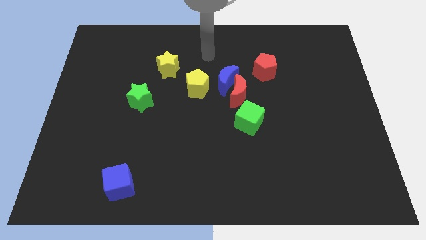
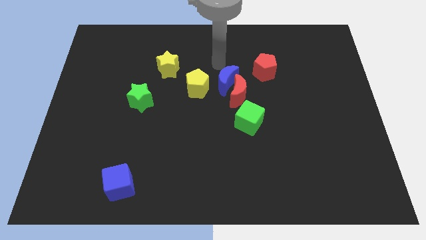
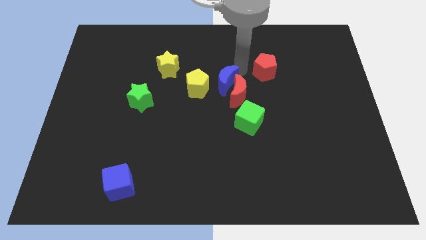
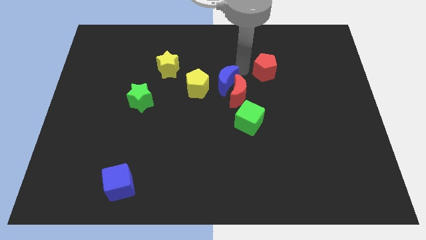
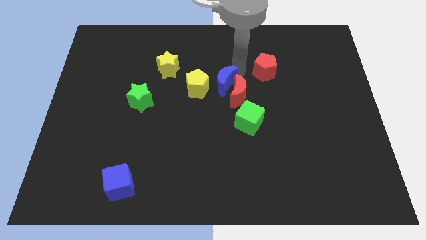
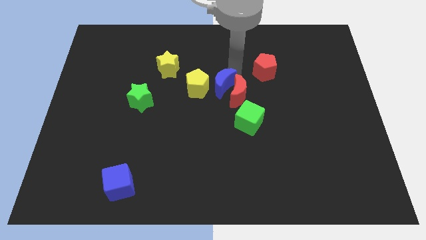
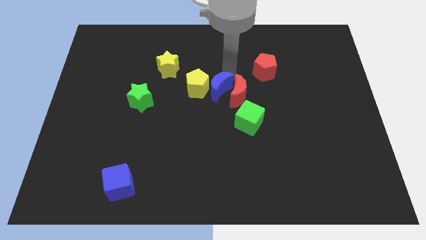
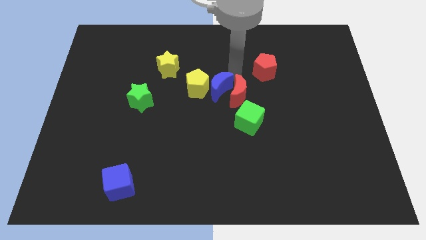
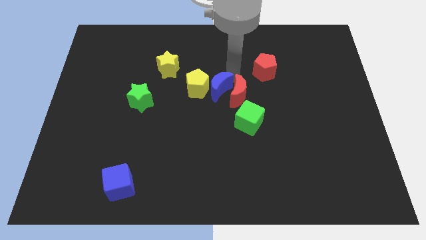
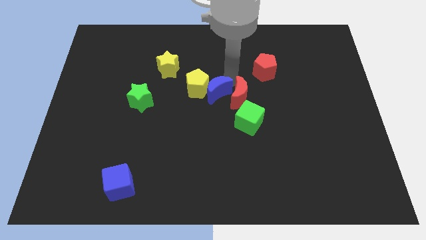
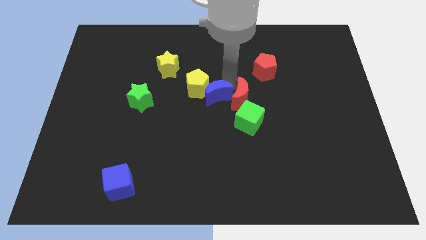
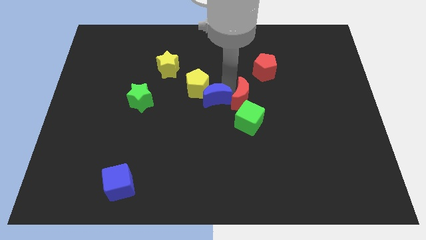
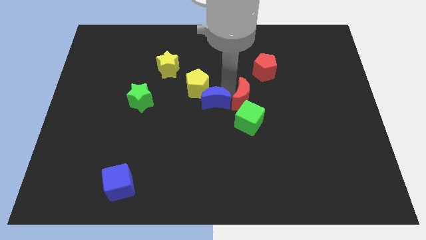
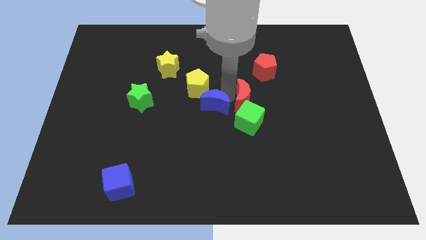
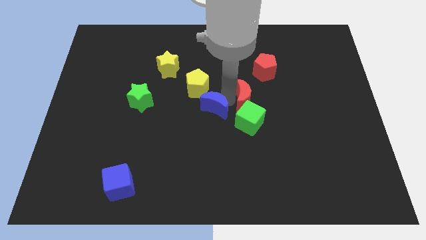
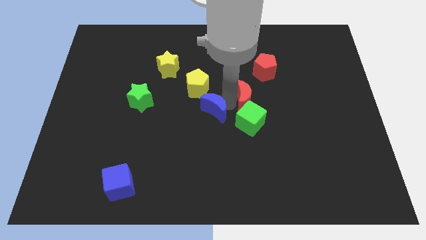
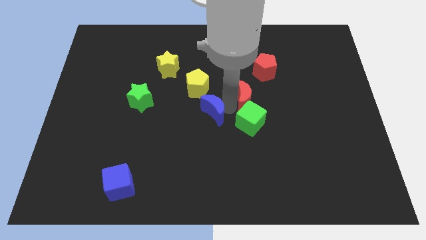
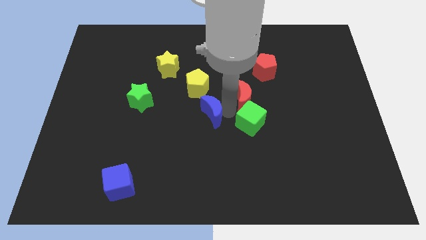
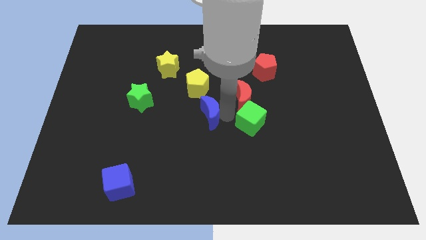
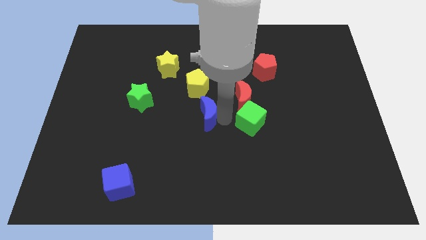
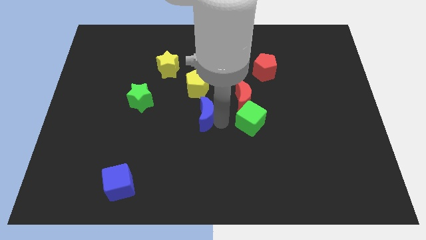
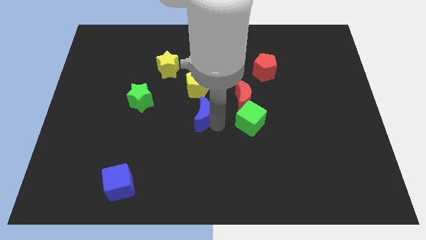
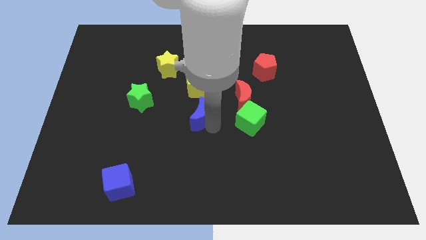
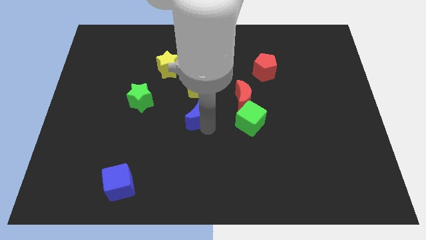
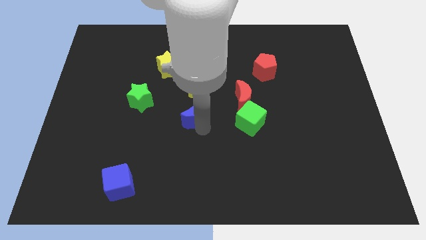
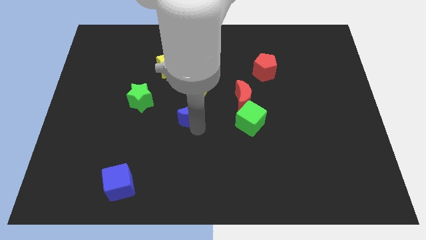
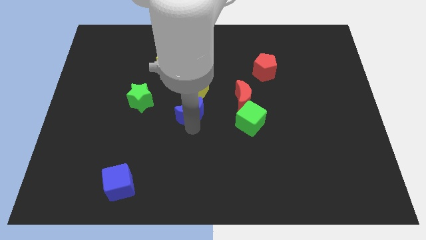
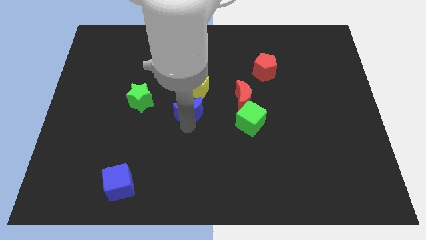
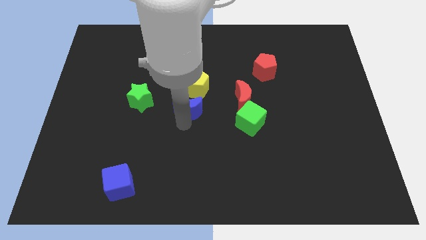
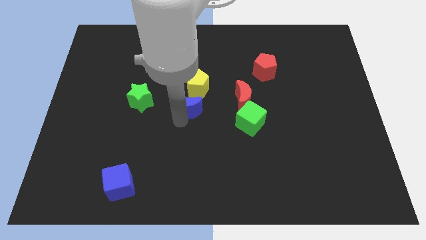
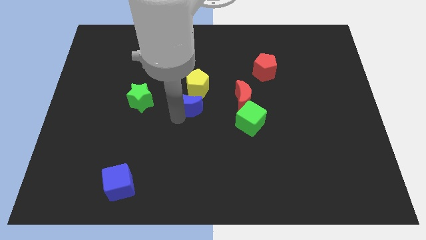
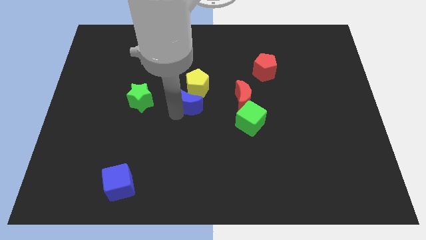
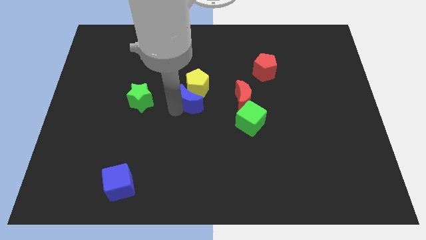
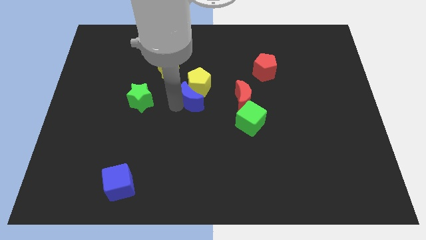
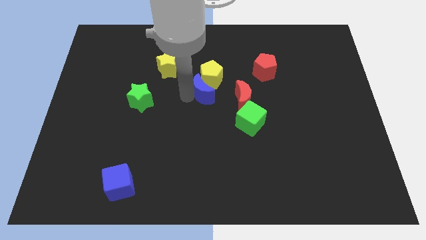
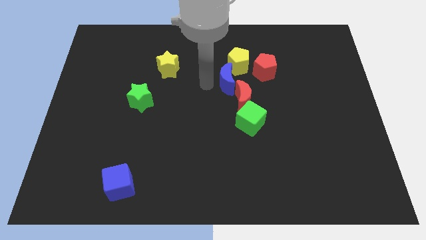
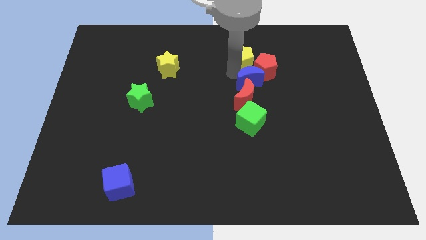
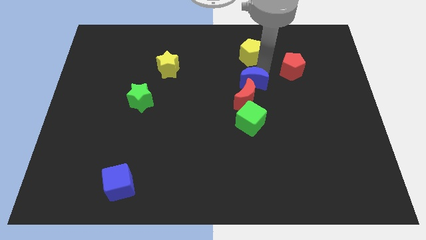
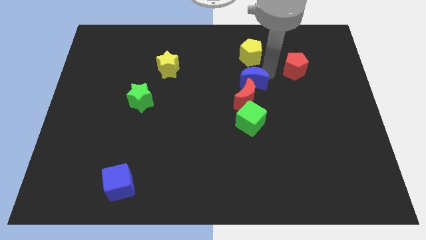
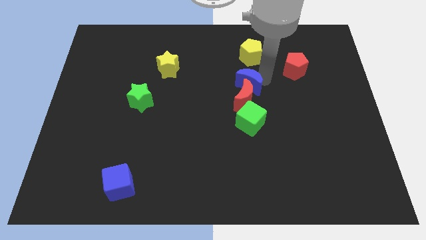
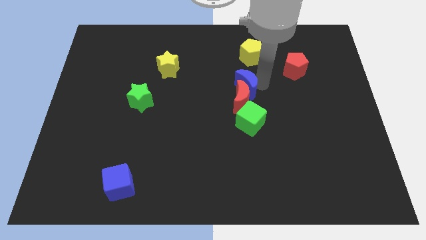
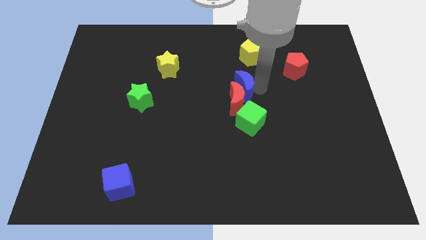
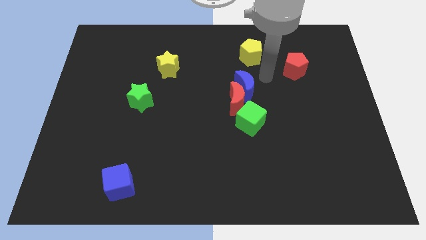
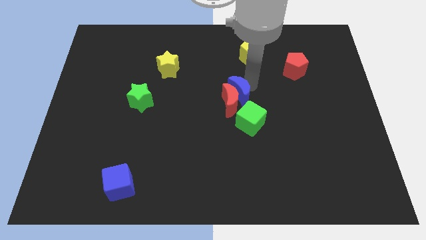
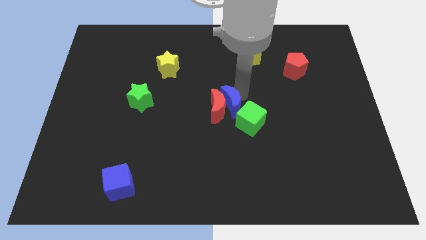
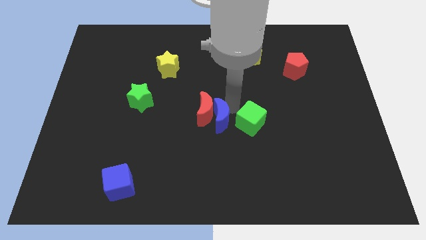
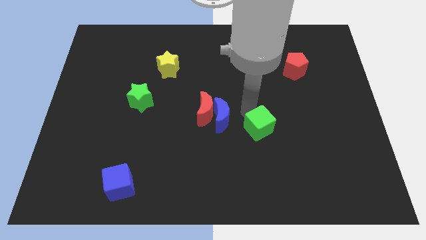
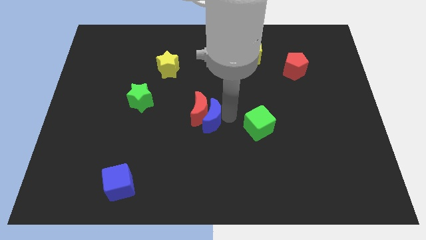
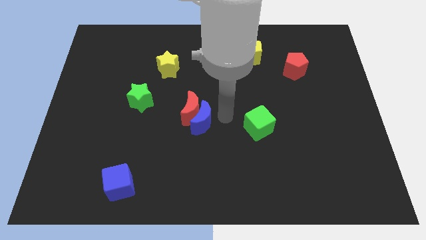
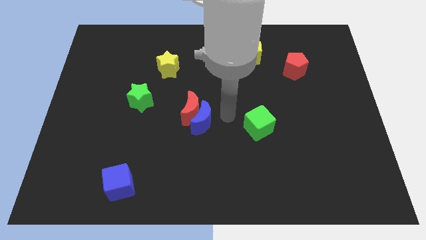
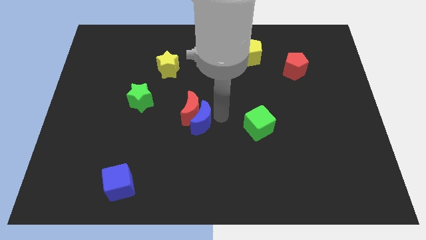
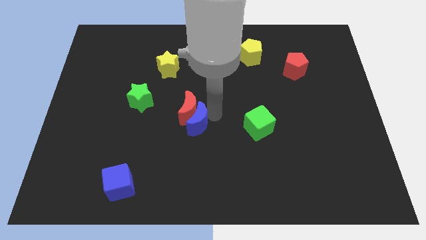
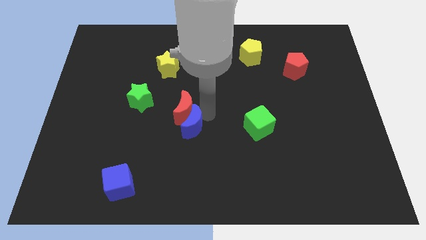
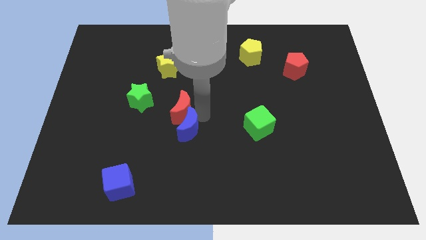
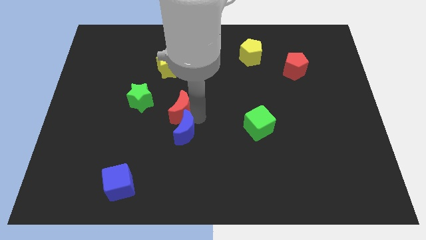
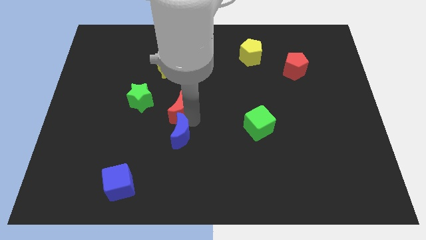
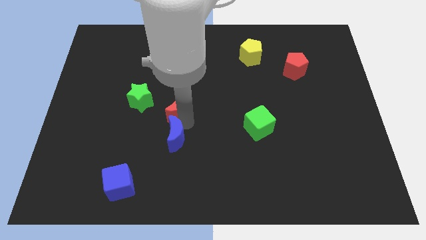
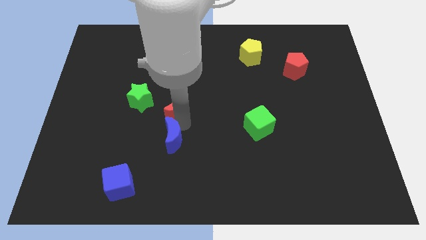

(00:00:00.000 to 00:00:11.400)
slide the blue moon down and then left

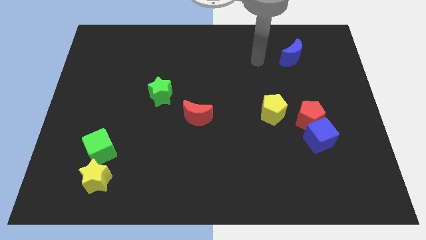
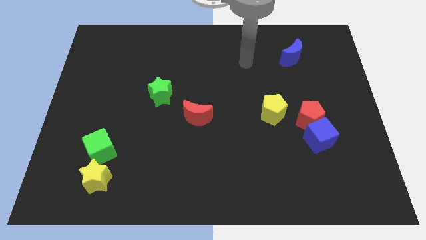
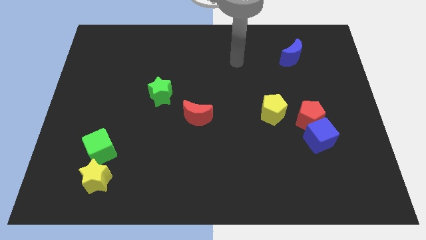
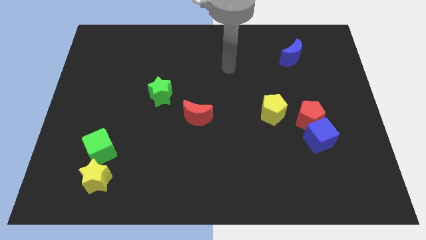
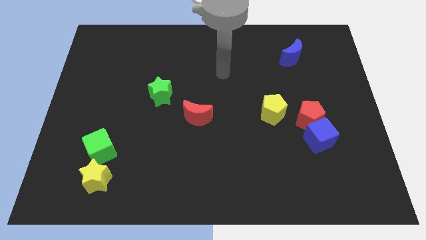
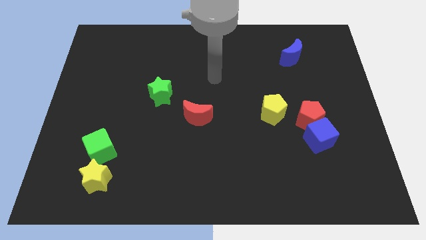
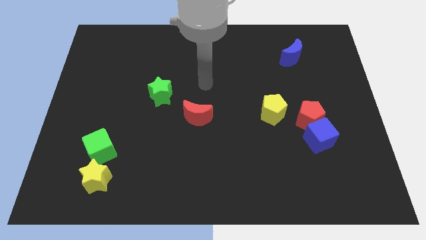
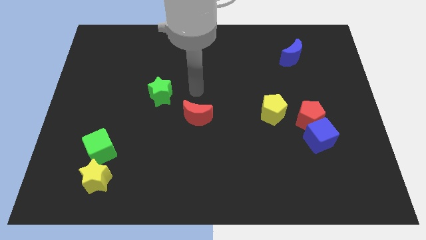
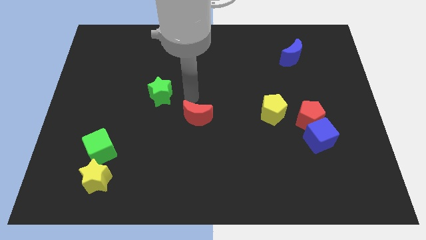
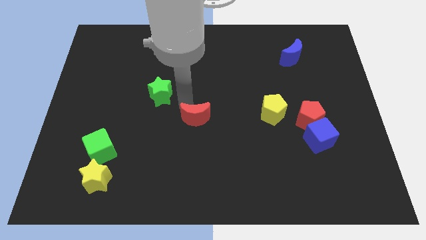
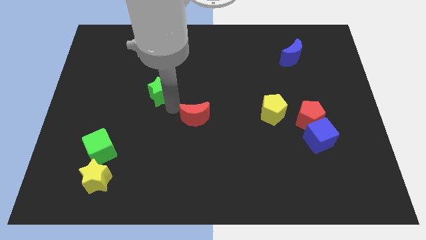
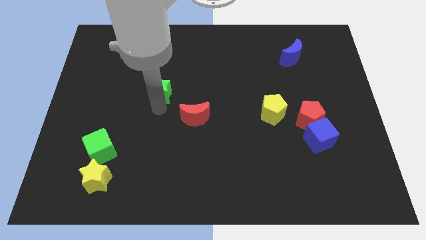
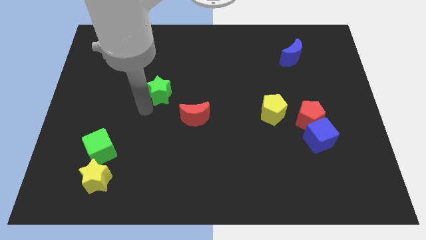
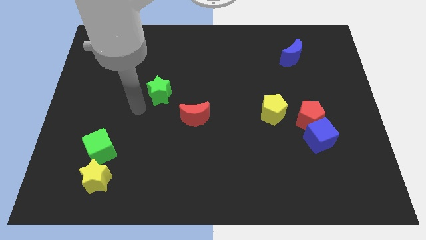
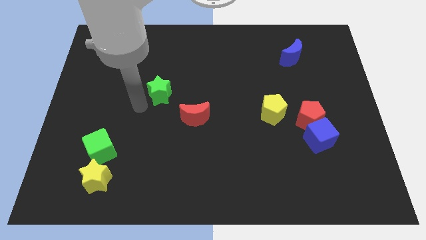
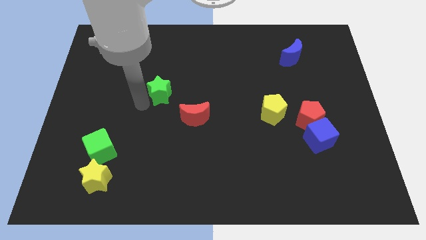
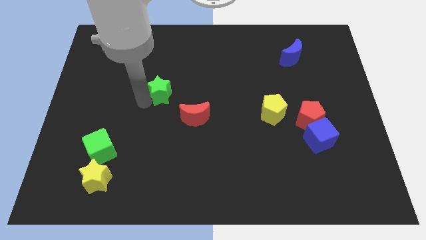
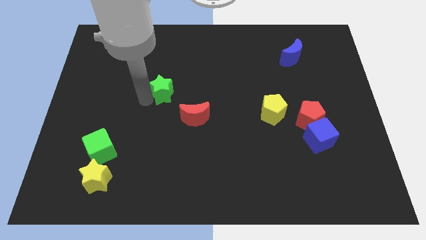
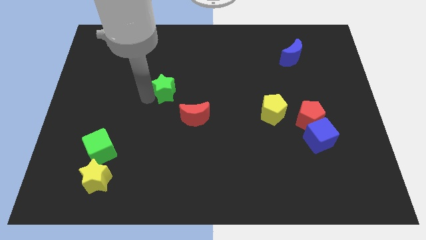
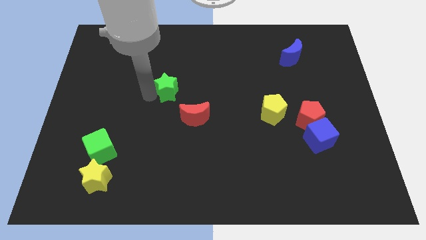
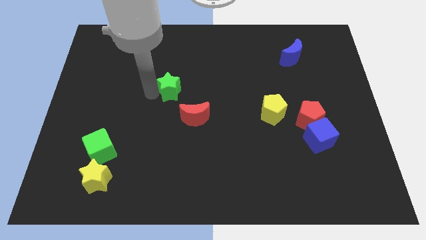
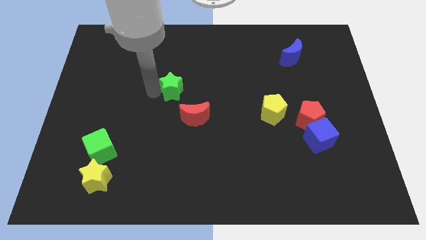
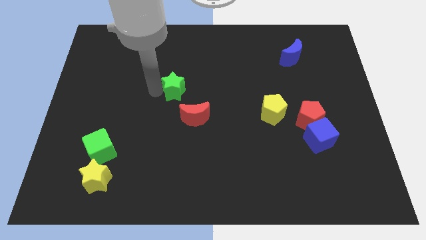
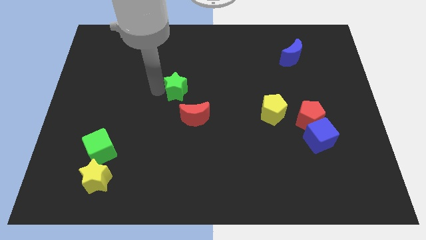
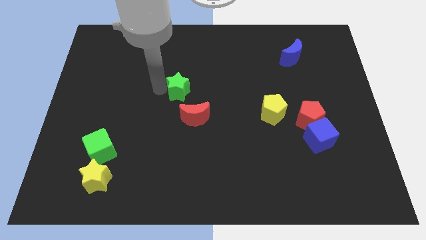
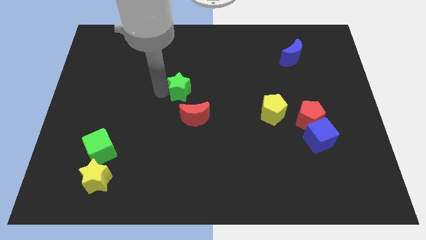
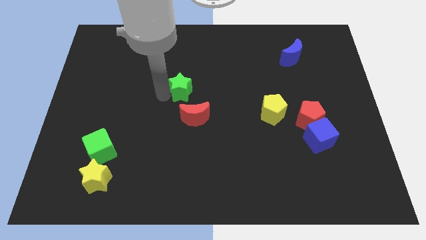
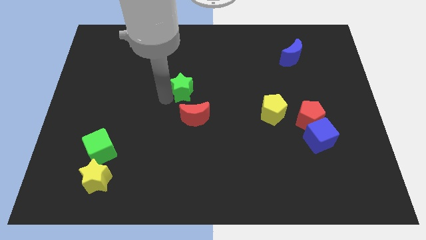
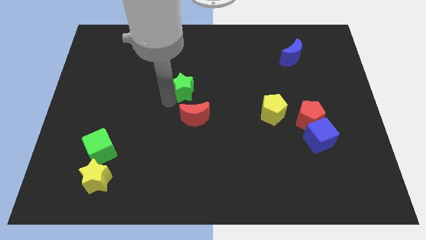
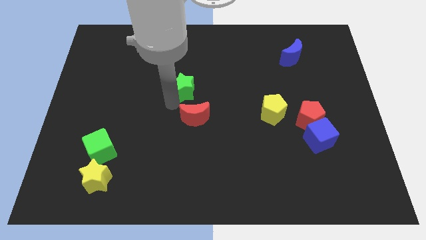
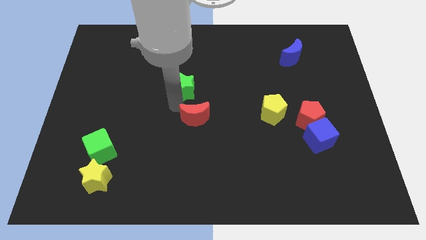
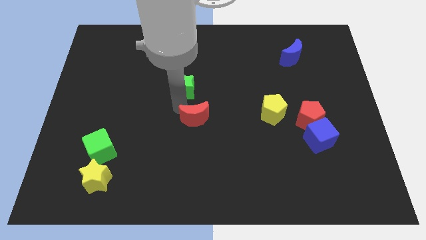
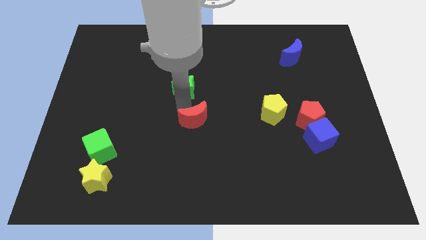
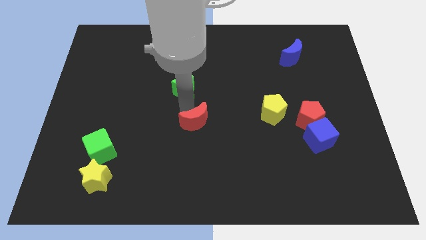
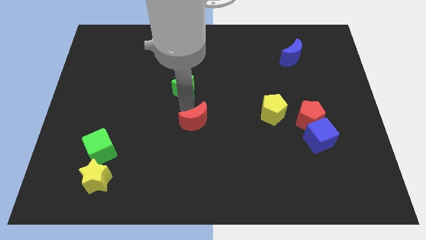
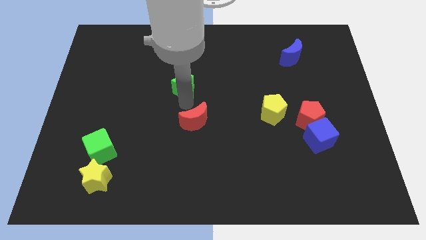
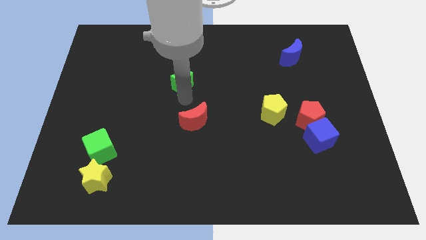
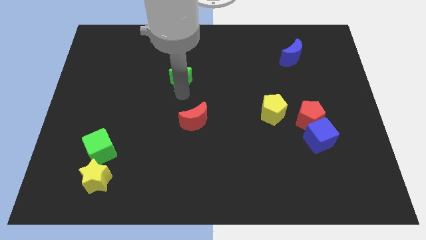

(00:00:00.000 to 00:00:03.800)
push the green star slightly up and right
